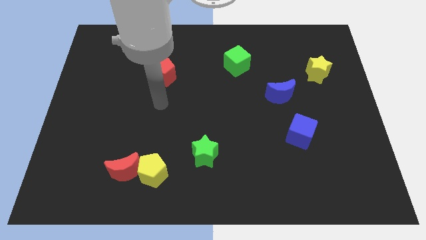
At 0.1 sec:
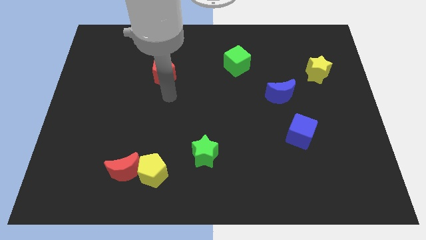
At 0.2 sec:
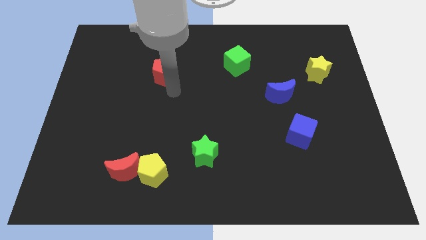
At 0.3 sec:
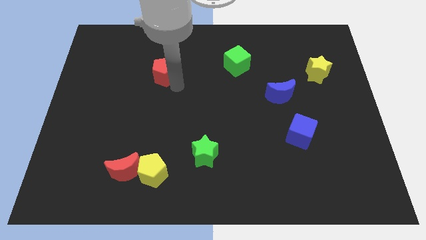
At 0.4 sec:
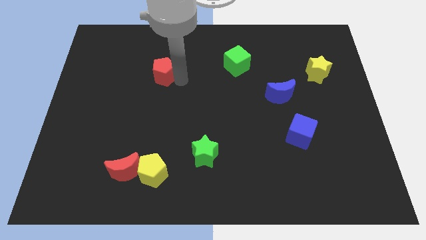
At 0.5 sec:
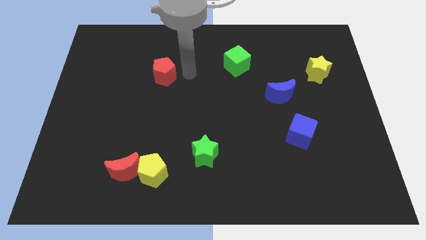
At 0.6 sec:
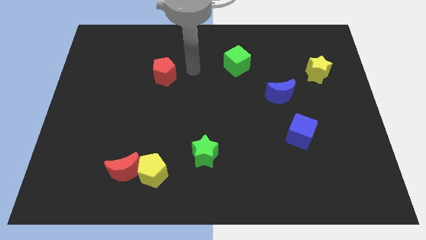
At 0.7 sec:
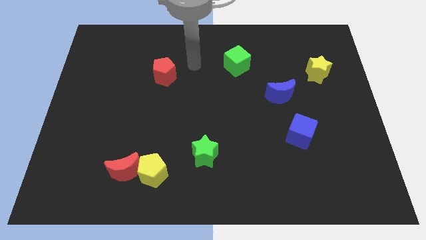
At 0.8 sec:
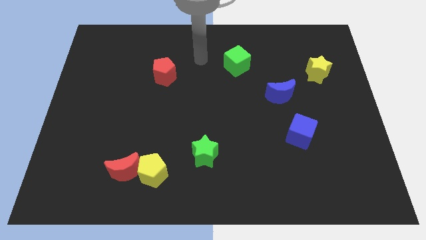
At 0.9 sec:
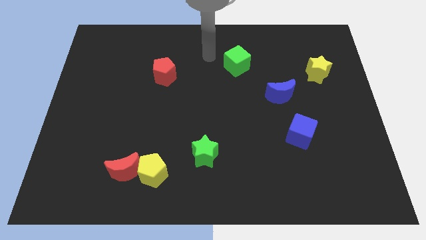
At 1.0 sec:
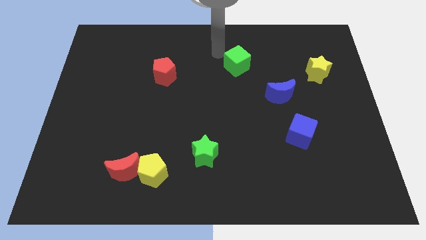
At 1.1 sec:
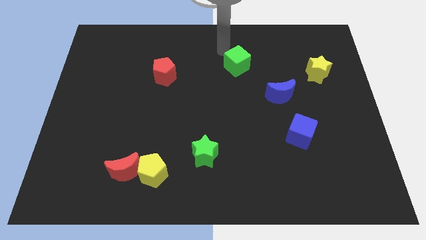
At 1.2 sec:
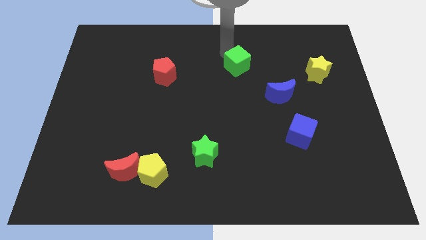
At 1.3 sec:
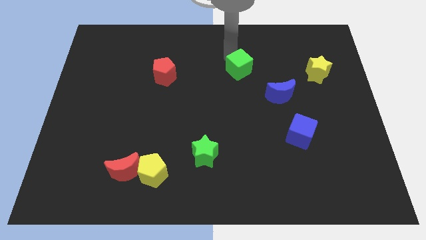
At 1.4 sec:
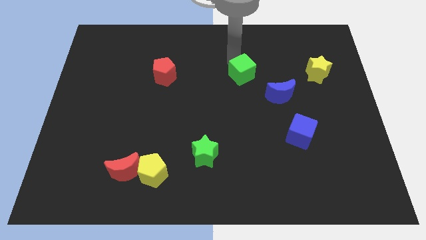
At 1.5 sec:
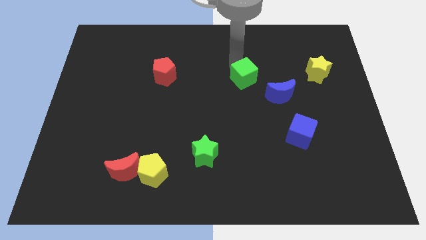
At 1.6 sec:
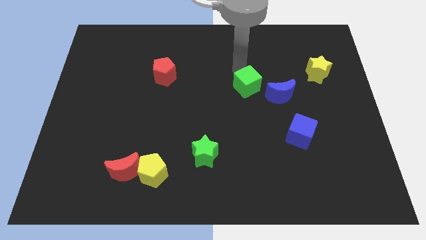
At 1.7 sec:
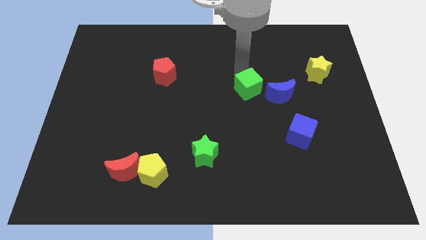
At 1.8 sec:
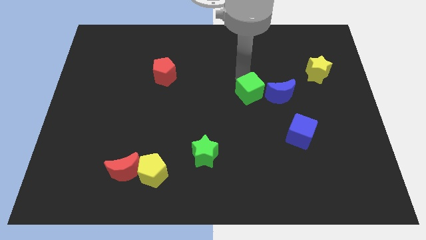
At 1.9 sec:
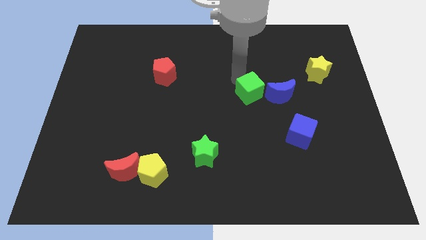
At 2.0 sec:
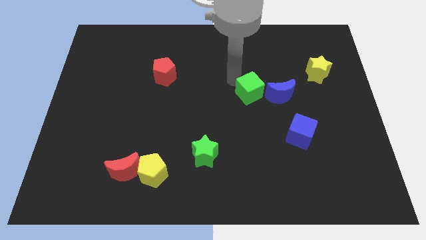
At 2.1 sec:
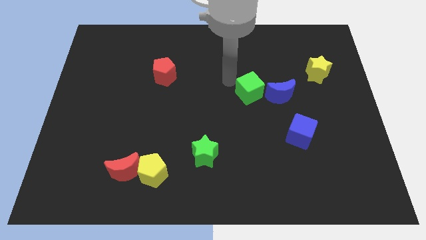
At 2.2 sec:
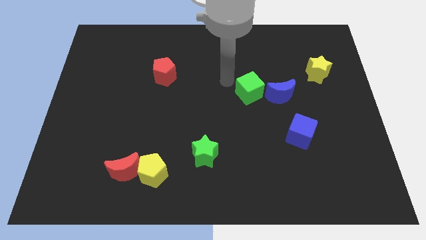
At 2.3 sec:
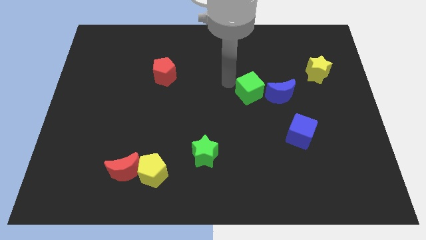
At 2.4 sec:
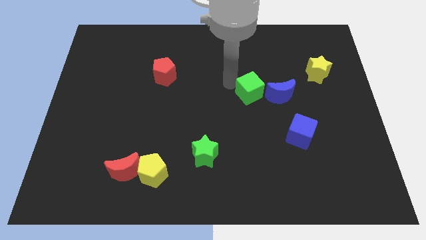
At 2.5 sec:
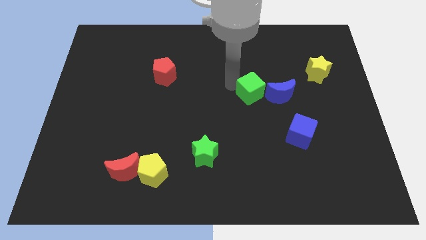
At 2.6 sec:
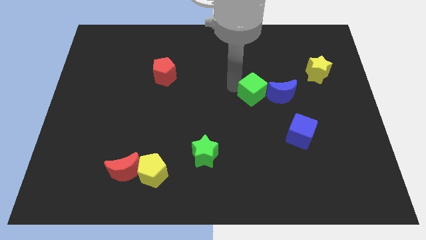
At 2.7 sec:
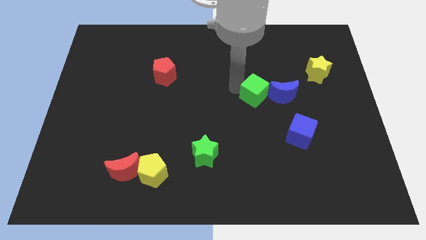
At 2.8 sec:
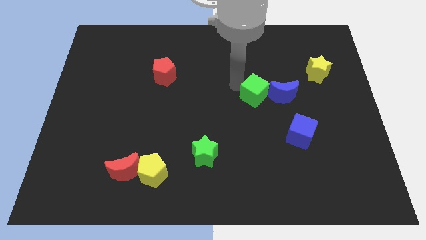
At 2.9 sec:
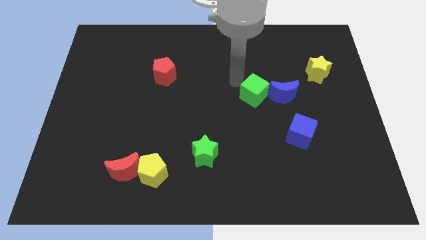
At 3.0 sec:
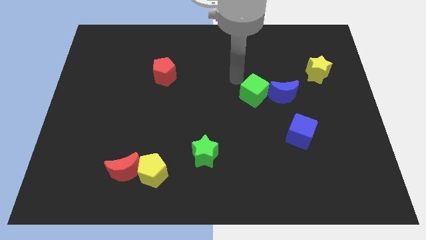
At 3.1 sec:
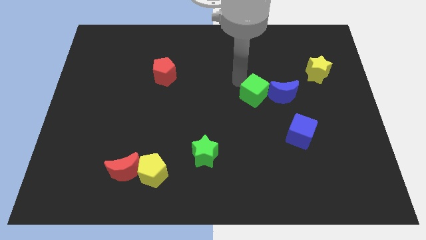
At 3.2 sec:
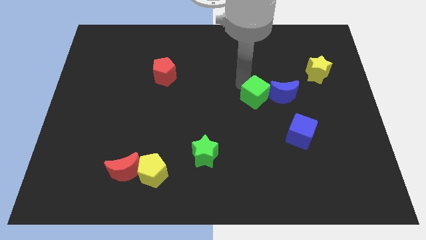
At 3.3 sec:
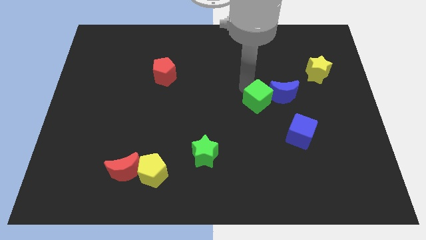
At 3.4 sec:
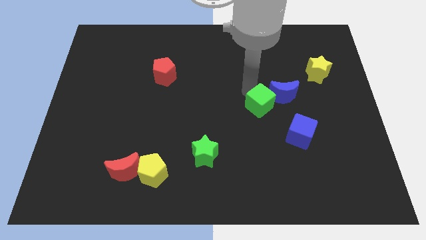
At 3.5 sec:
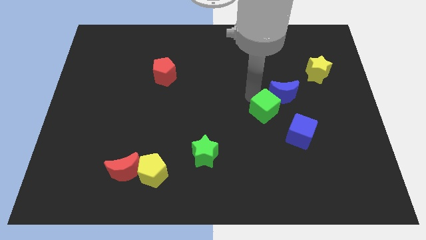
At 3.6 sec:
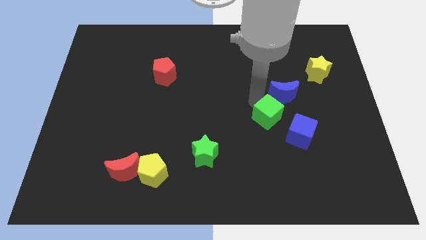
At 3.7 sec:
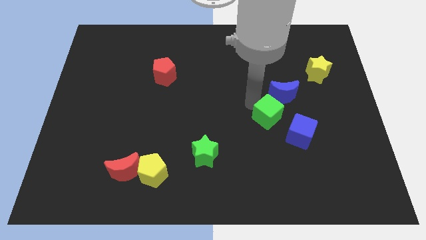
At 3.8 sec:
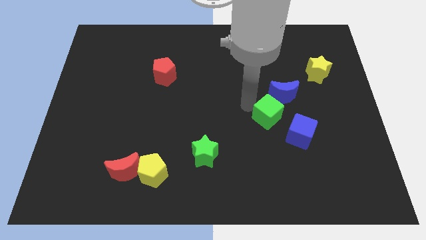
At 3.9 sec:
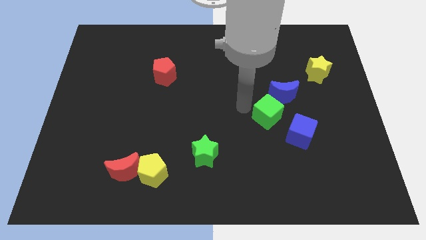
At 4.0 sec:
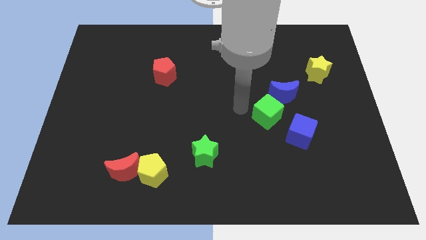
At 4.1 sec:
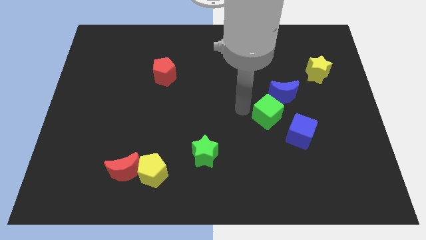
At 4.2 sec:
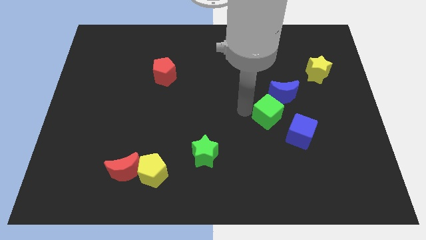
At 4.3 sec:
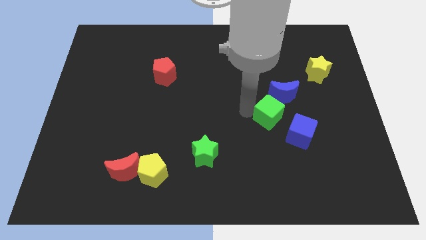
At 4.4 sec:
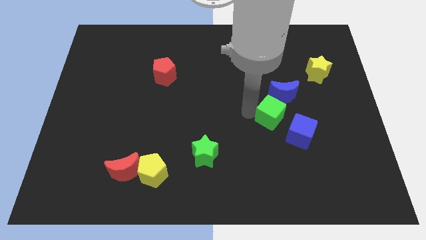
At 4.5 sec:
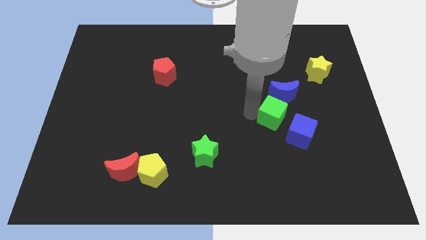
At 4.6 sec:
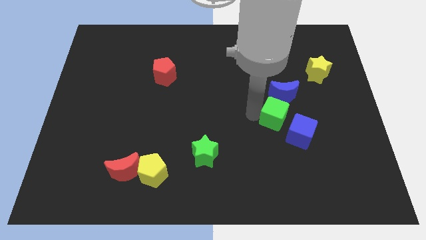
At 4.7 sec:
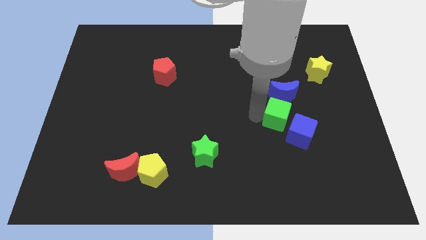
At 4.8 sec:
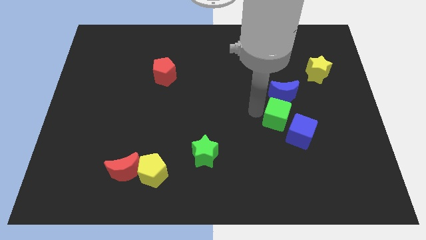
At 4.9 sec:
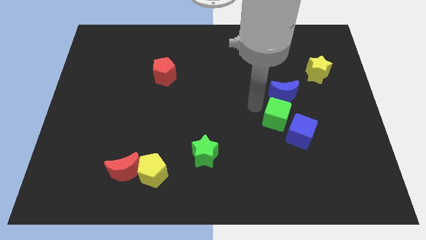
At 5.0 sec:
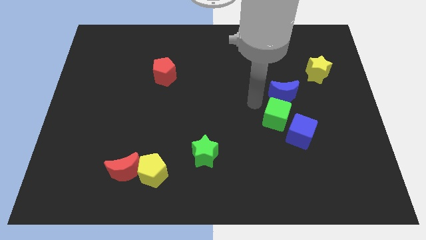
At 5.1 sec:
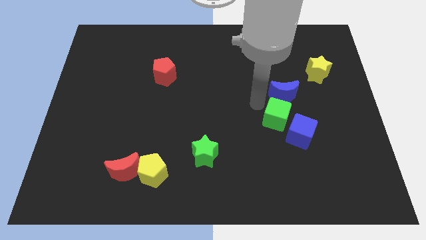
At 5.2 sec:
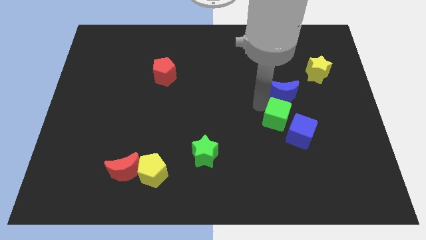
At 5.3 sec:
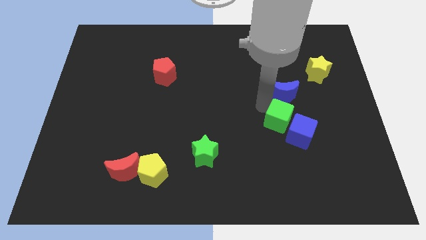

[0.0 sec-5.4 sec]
move the green cube towards the blue cube

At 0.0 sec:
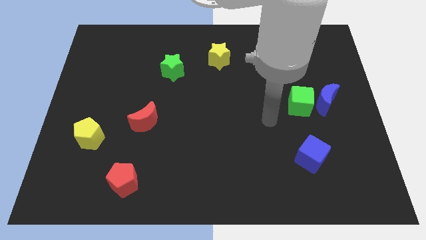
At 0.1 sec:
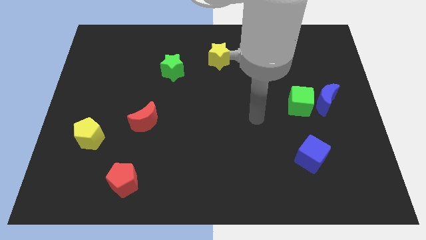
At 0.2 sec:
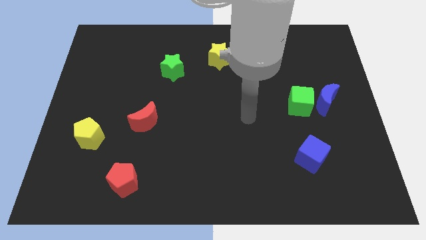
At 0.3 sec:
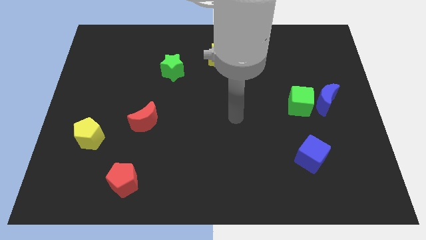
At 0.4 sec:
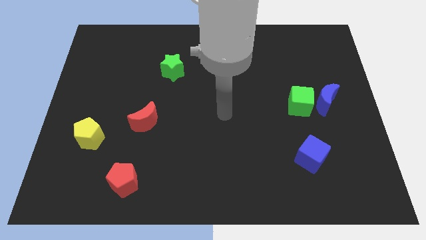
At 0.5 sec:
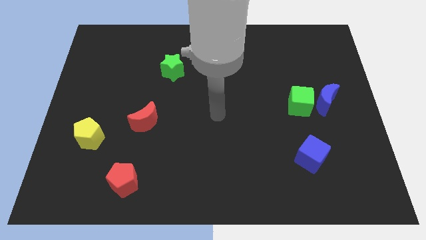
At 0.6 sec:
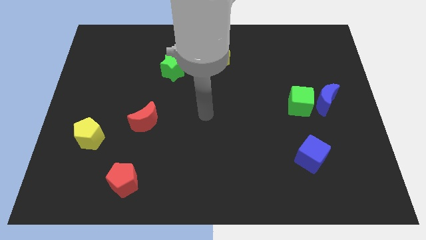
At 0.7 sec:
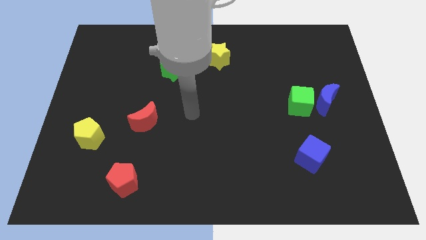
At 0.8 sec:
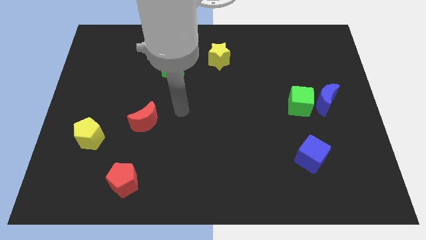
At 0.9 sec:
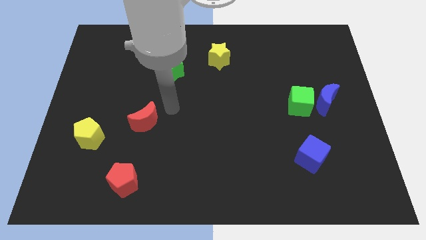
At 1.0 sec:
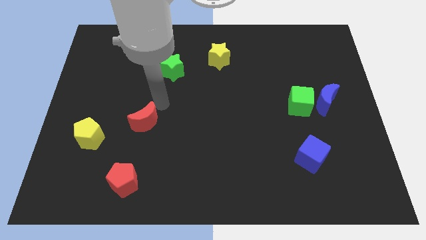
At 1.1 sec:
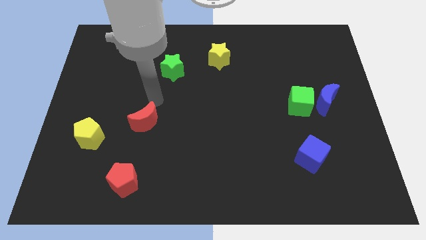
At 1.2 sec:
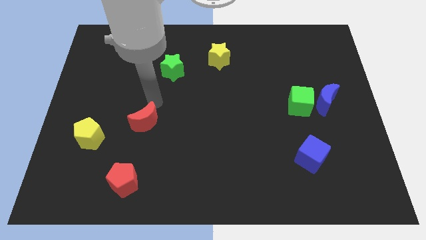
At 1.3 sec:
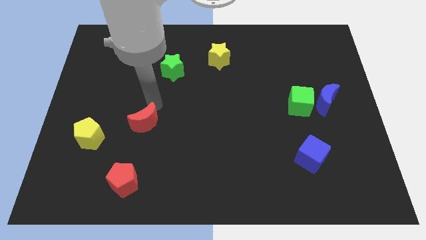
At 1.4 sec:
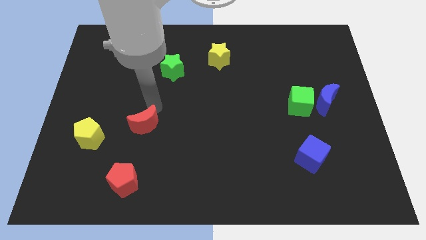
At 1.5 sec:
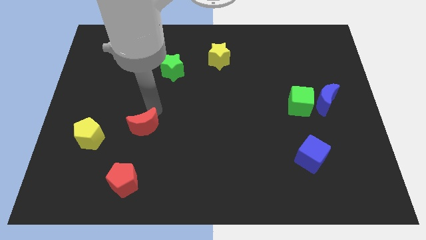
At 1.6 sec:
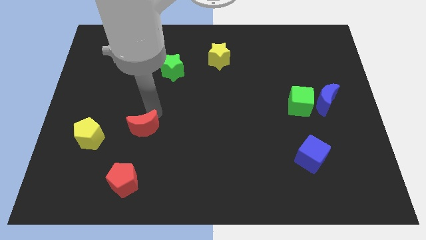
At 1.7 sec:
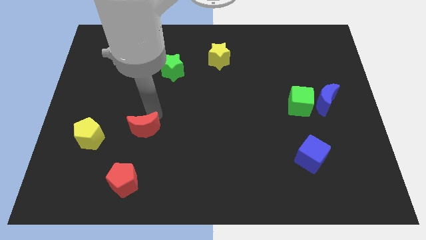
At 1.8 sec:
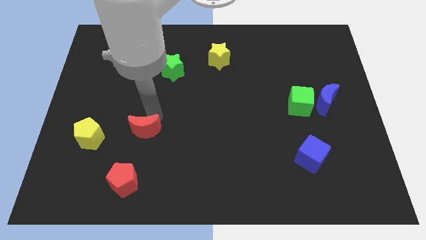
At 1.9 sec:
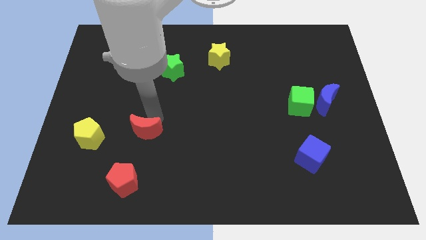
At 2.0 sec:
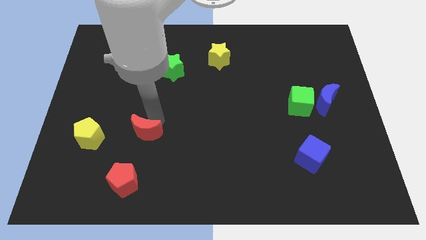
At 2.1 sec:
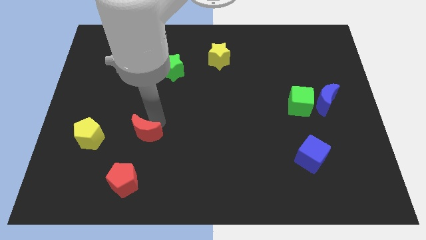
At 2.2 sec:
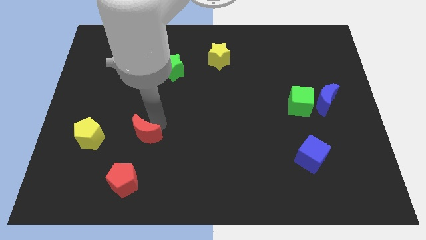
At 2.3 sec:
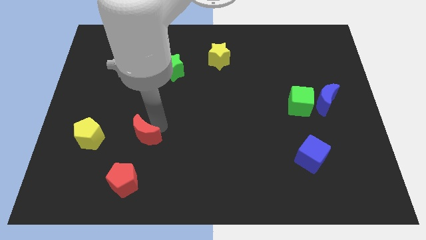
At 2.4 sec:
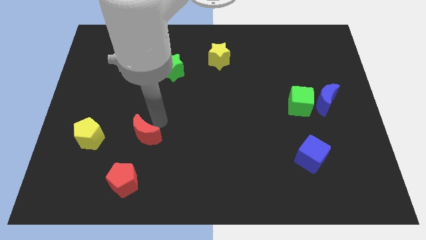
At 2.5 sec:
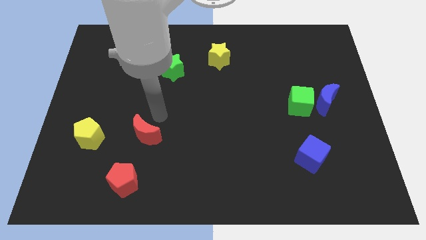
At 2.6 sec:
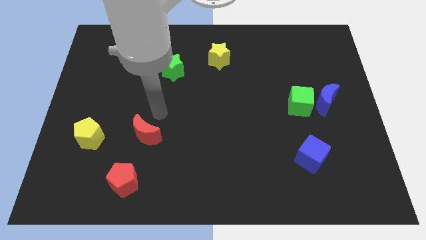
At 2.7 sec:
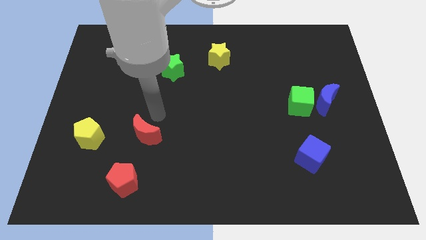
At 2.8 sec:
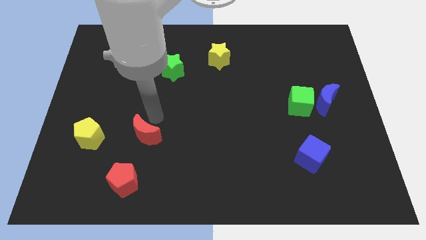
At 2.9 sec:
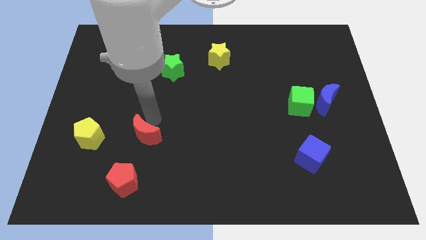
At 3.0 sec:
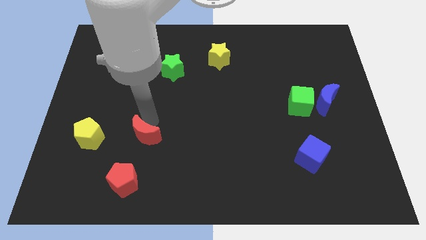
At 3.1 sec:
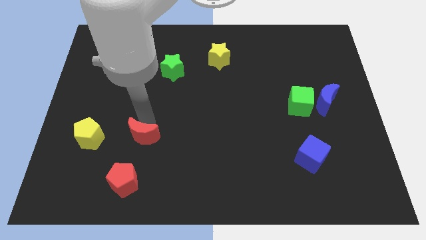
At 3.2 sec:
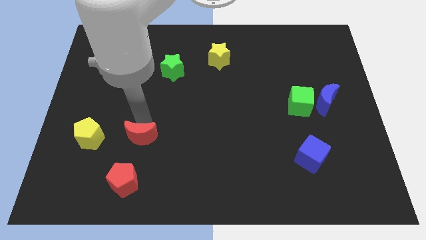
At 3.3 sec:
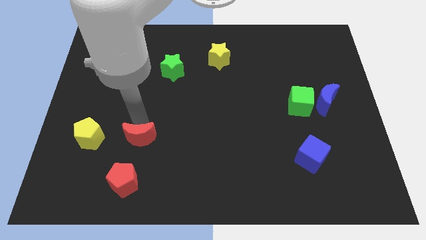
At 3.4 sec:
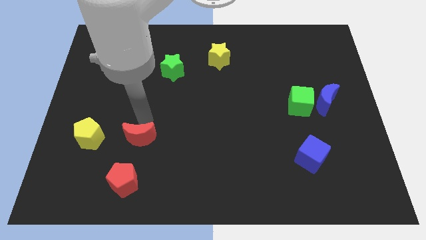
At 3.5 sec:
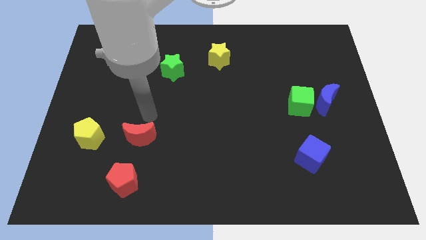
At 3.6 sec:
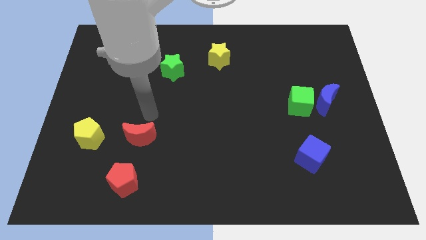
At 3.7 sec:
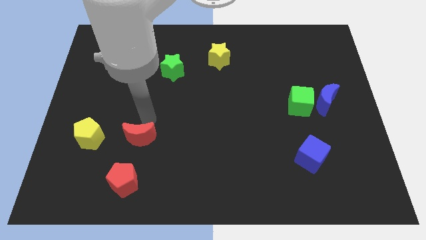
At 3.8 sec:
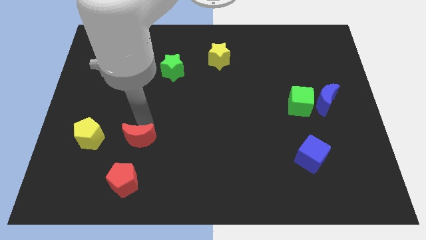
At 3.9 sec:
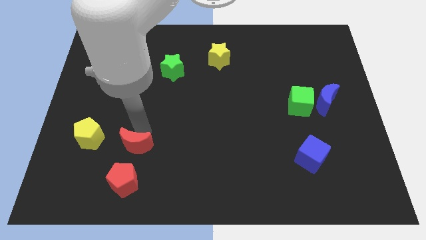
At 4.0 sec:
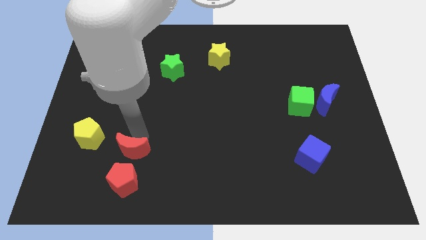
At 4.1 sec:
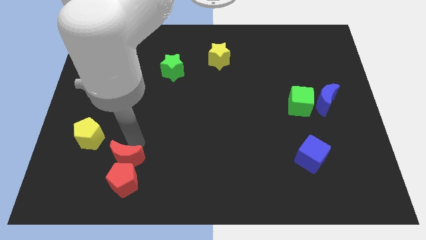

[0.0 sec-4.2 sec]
move the red moon towards the red pentagon
